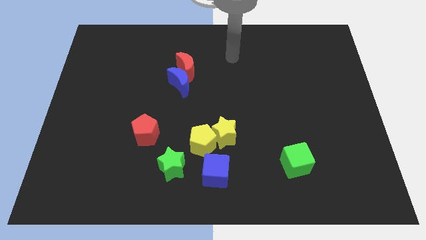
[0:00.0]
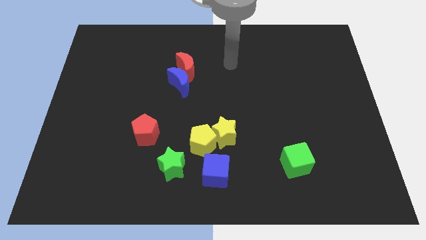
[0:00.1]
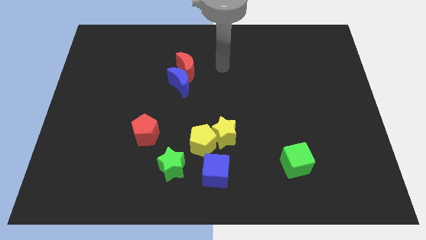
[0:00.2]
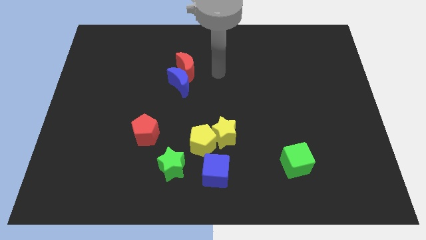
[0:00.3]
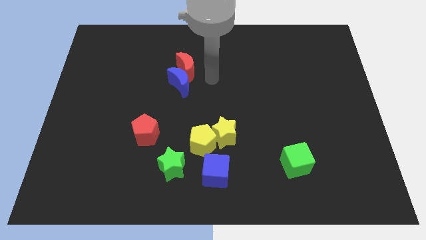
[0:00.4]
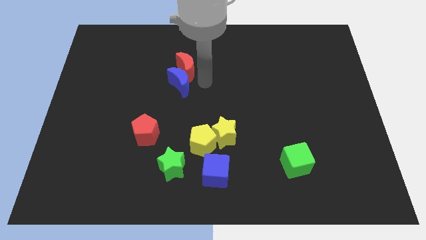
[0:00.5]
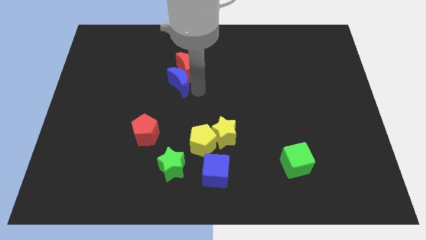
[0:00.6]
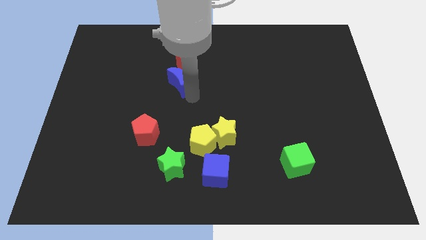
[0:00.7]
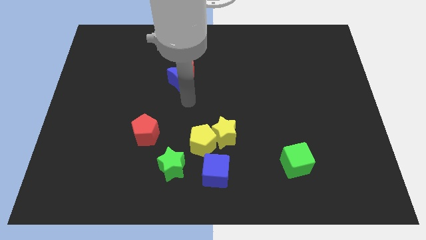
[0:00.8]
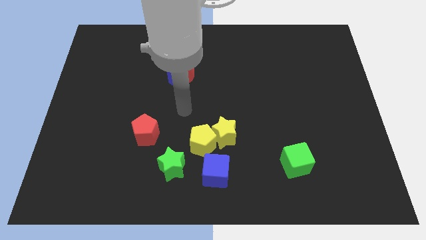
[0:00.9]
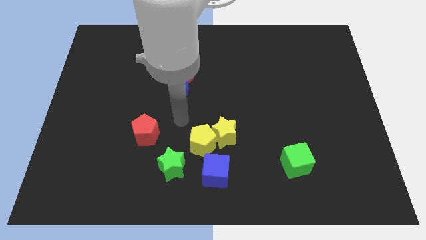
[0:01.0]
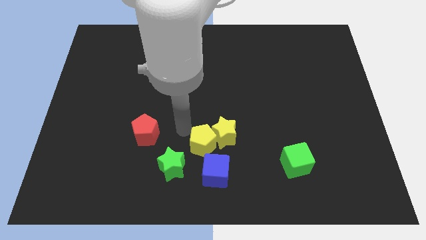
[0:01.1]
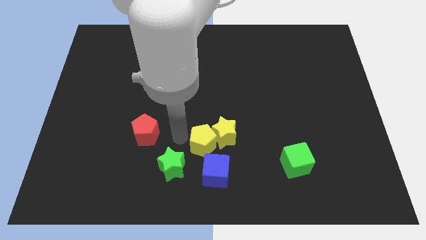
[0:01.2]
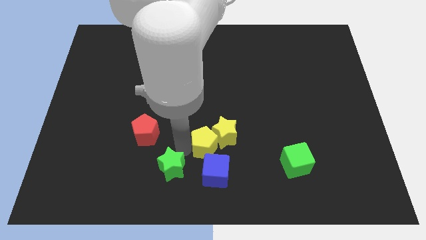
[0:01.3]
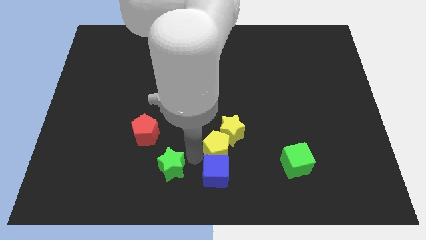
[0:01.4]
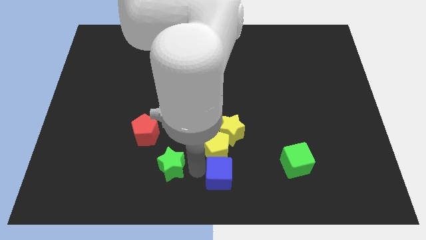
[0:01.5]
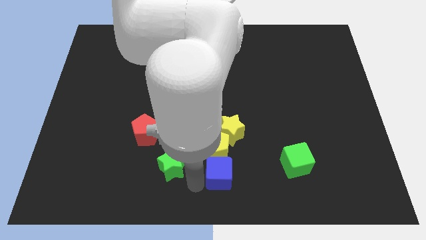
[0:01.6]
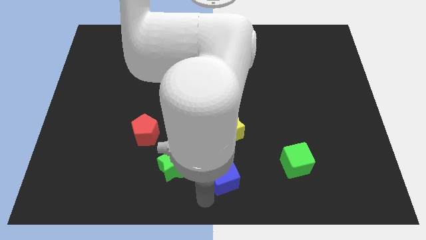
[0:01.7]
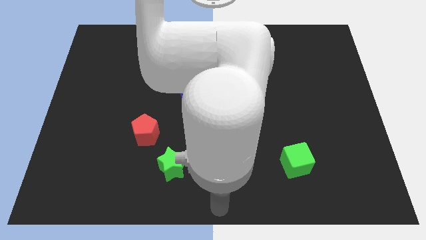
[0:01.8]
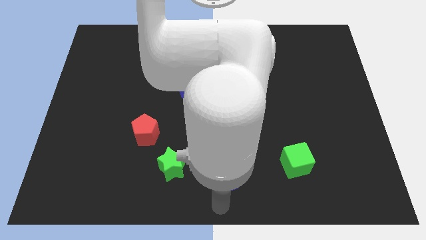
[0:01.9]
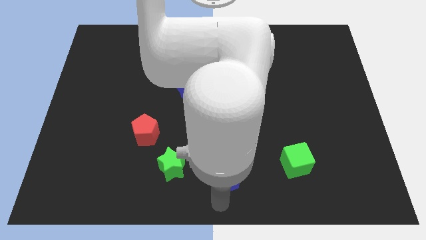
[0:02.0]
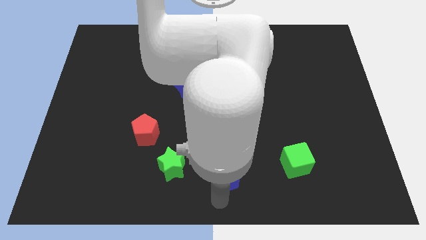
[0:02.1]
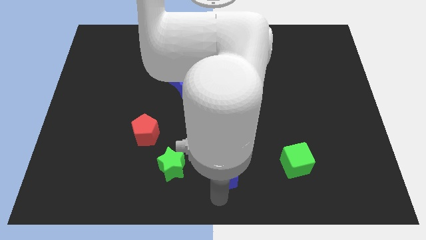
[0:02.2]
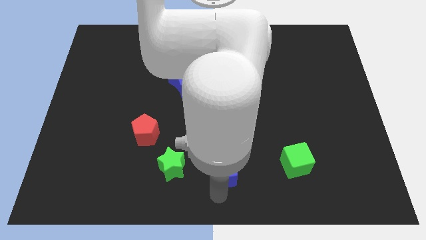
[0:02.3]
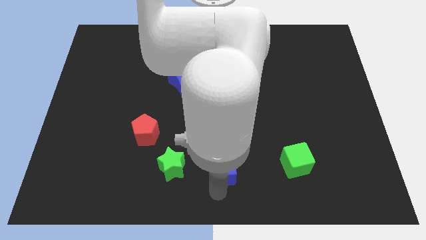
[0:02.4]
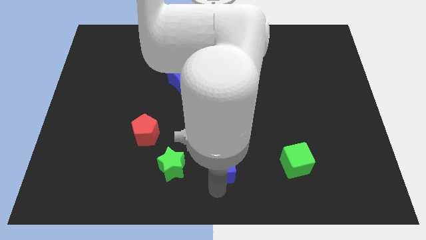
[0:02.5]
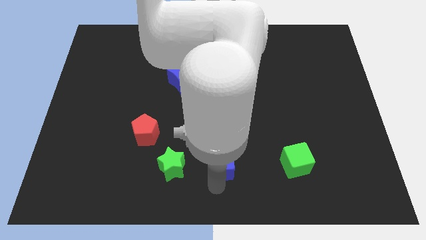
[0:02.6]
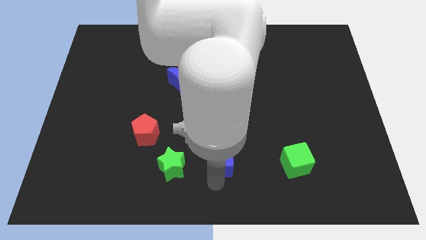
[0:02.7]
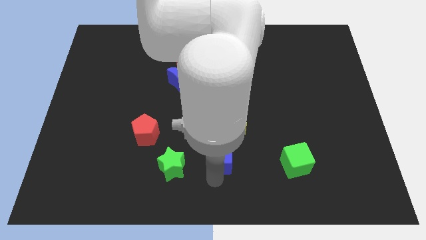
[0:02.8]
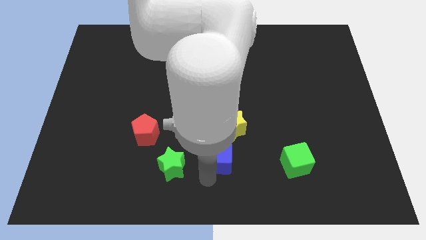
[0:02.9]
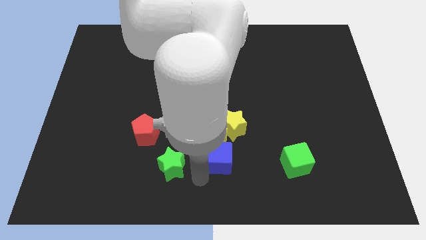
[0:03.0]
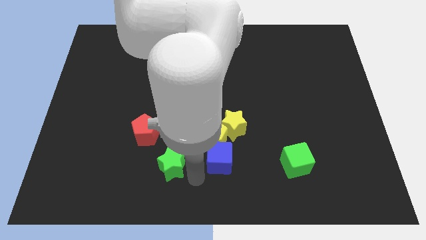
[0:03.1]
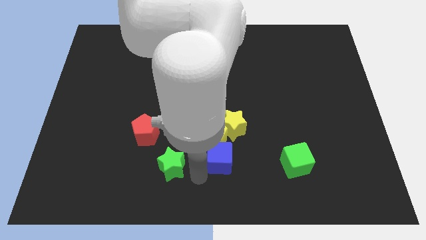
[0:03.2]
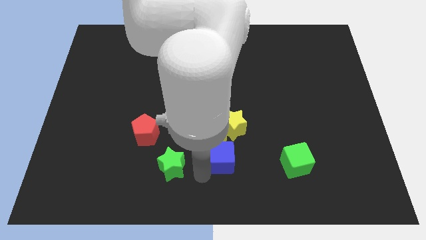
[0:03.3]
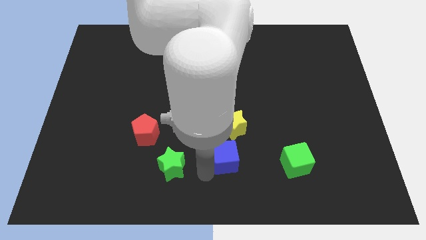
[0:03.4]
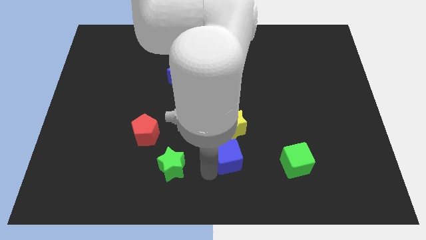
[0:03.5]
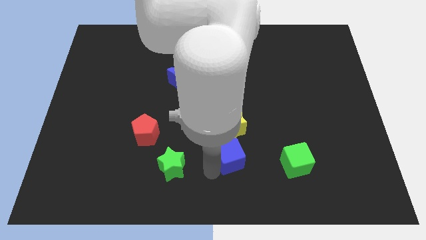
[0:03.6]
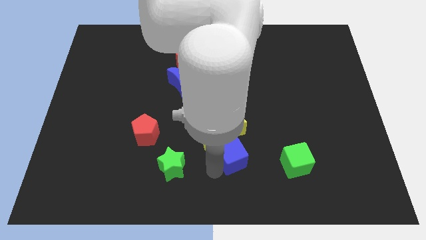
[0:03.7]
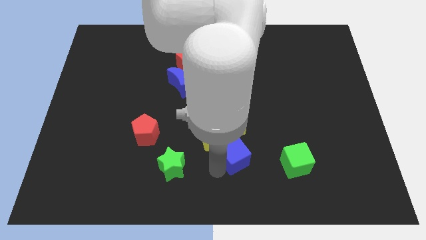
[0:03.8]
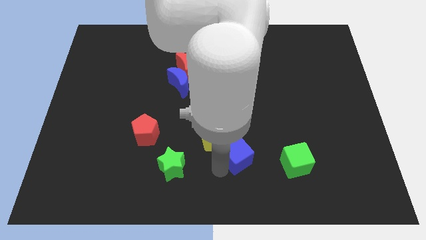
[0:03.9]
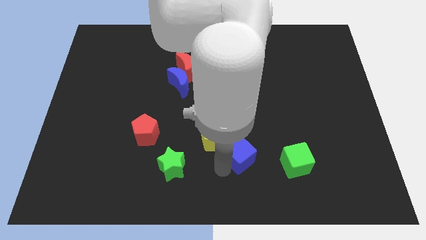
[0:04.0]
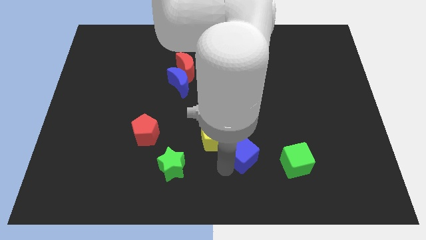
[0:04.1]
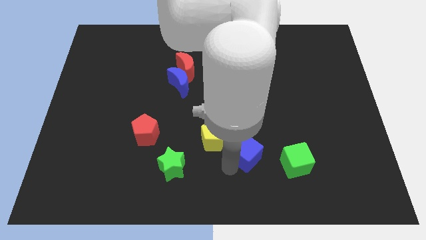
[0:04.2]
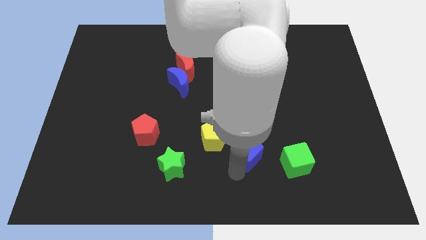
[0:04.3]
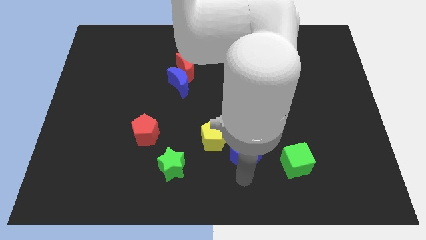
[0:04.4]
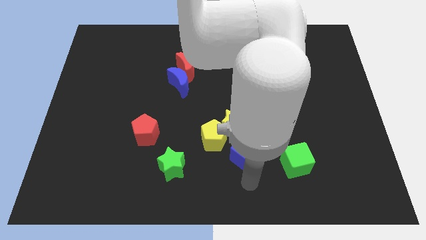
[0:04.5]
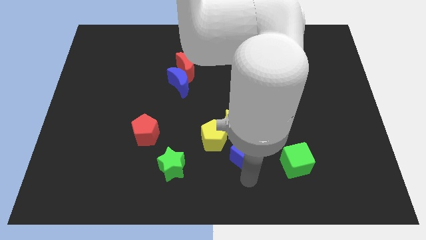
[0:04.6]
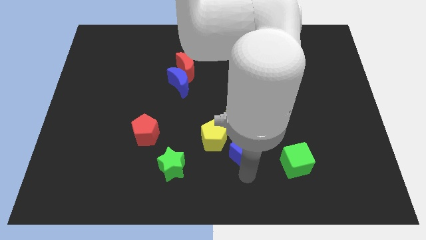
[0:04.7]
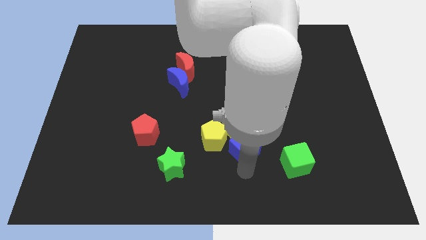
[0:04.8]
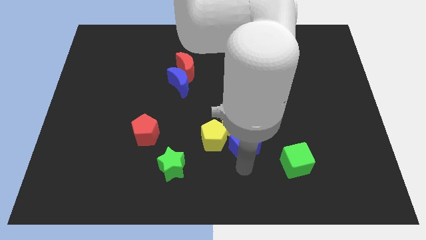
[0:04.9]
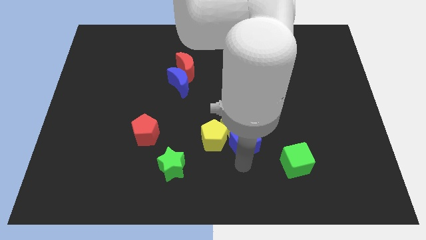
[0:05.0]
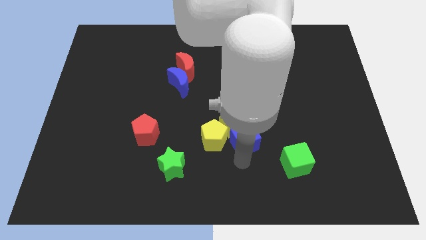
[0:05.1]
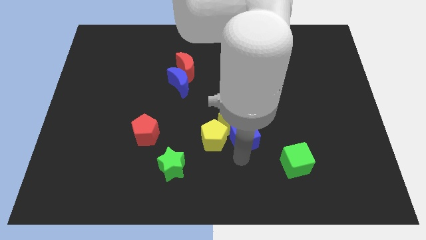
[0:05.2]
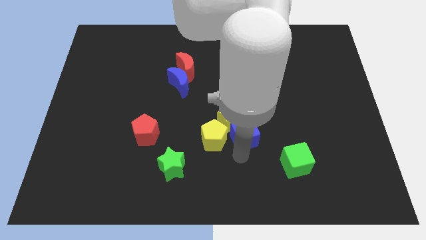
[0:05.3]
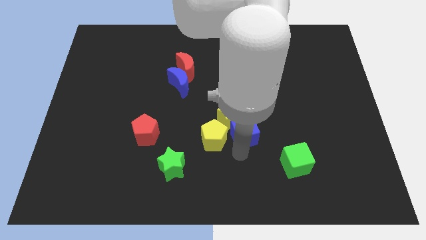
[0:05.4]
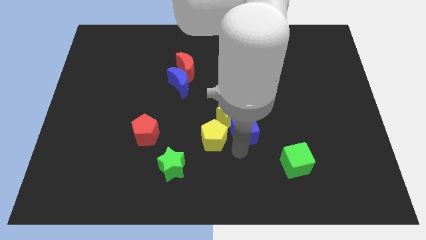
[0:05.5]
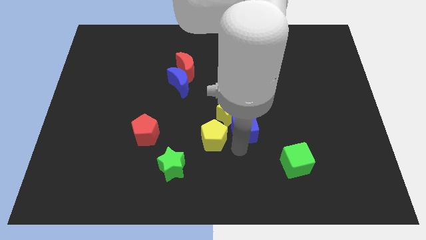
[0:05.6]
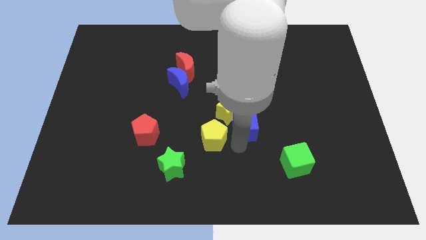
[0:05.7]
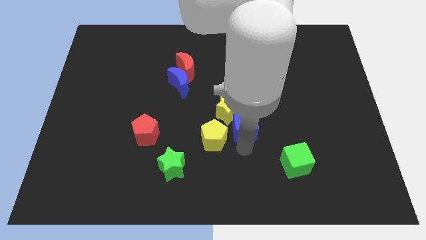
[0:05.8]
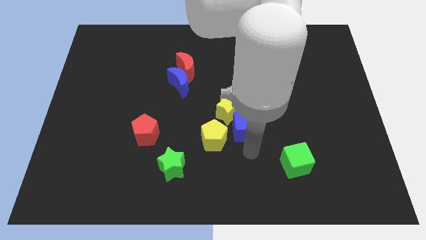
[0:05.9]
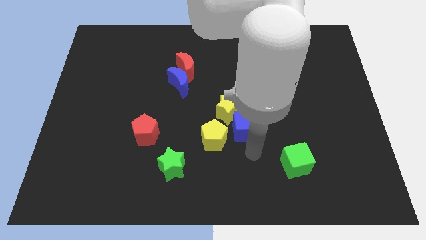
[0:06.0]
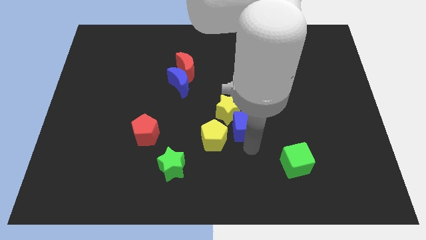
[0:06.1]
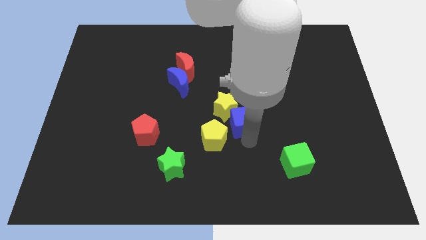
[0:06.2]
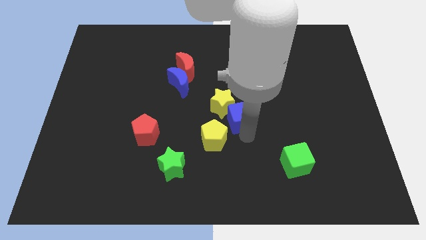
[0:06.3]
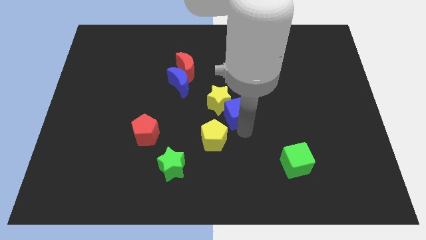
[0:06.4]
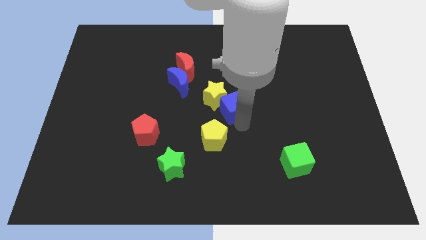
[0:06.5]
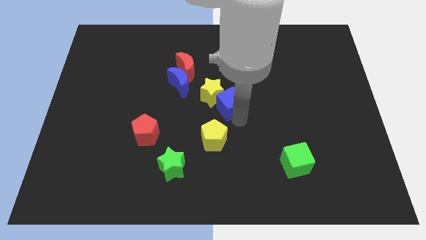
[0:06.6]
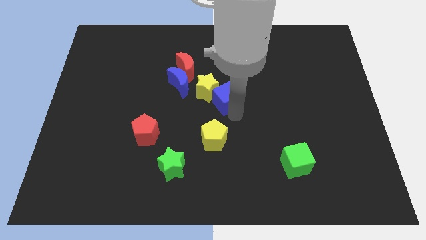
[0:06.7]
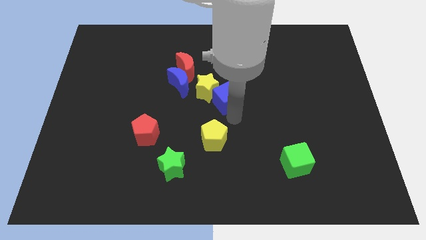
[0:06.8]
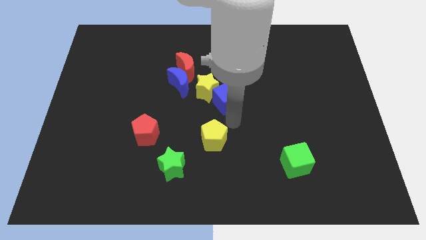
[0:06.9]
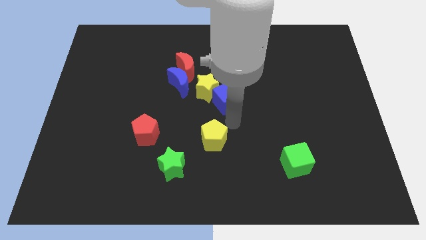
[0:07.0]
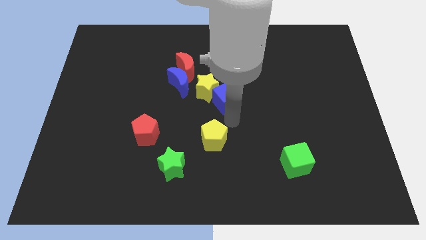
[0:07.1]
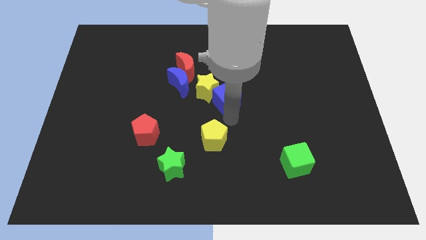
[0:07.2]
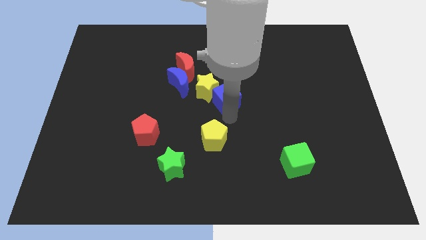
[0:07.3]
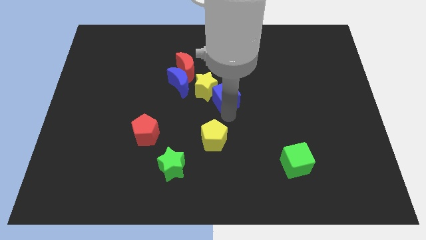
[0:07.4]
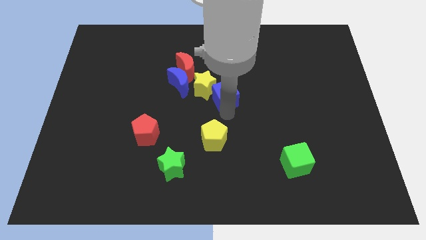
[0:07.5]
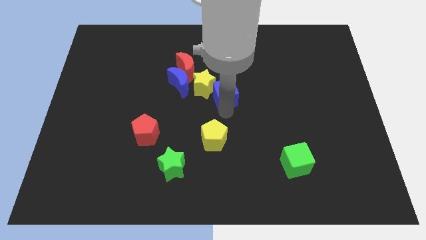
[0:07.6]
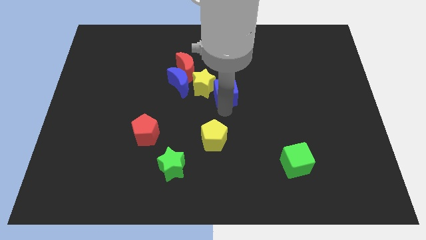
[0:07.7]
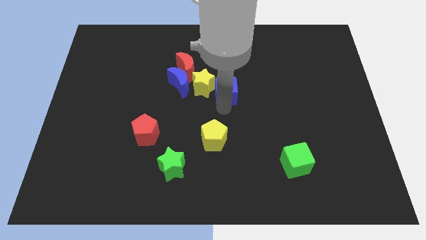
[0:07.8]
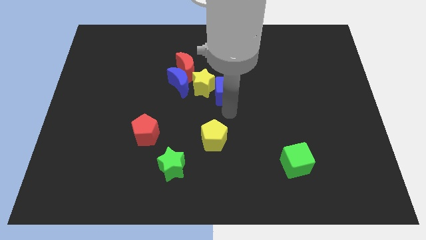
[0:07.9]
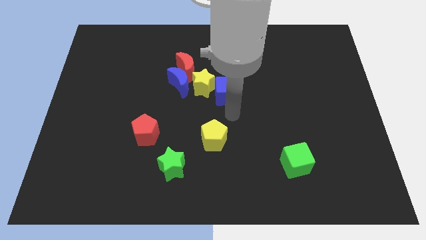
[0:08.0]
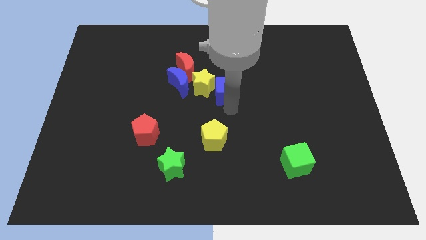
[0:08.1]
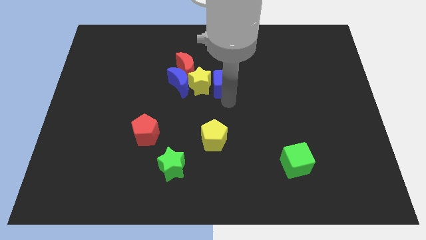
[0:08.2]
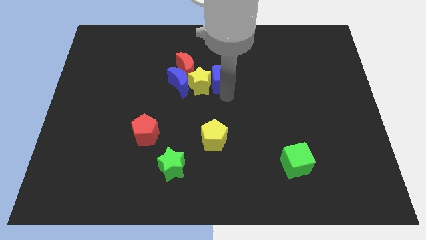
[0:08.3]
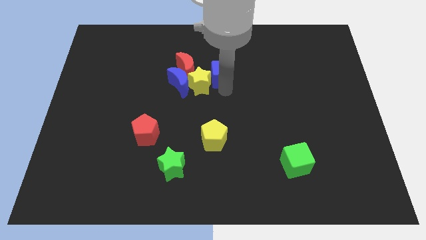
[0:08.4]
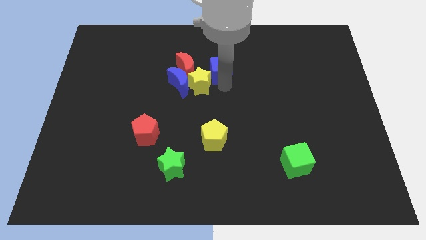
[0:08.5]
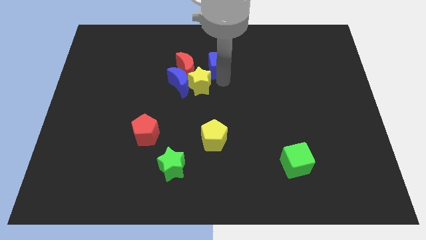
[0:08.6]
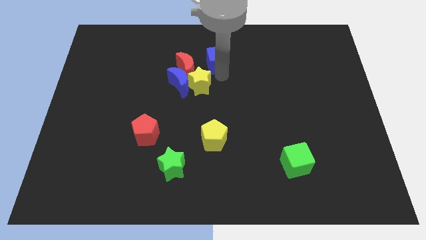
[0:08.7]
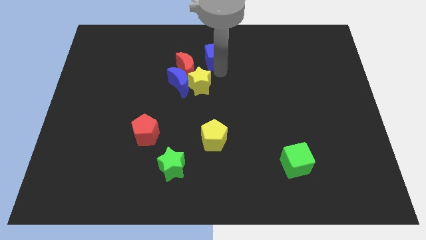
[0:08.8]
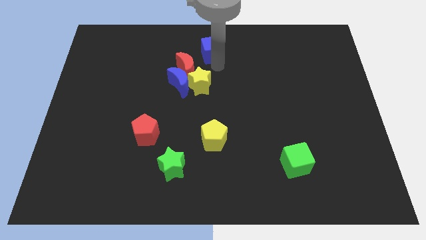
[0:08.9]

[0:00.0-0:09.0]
slide the blue cube to the top side
